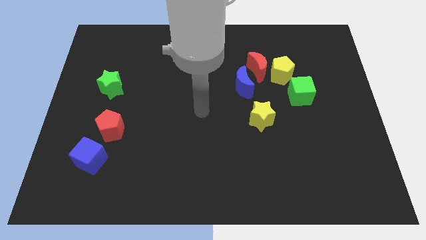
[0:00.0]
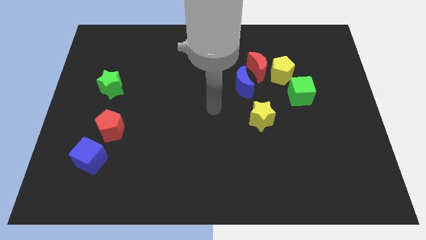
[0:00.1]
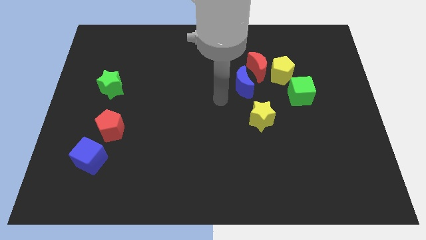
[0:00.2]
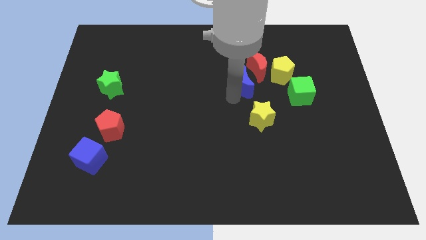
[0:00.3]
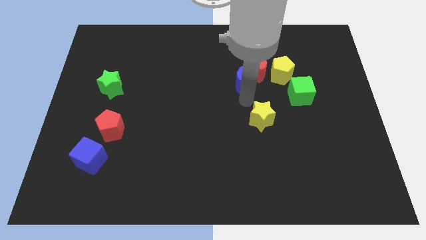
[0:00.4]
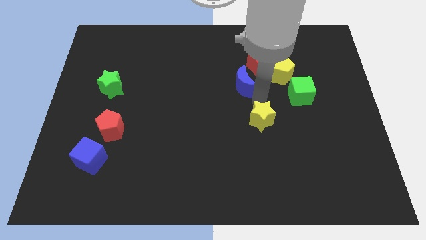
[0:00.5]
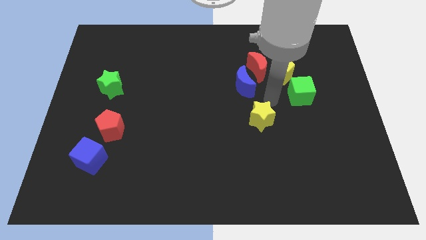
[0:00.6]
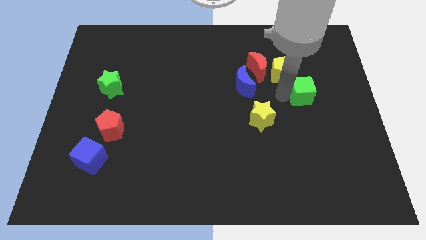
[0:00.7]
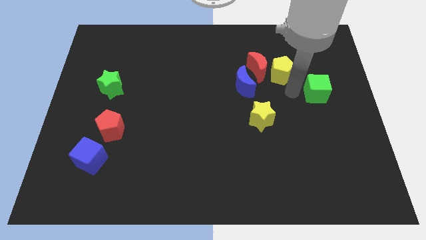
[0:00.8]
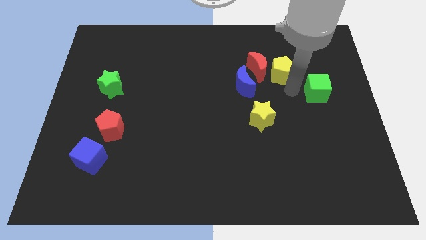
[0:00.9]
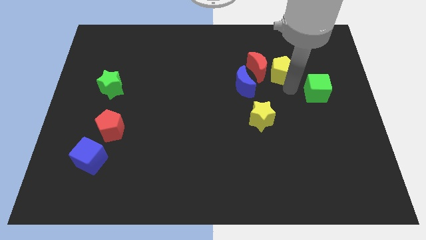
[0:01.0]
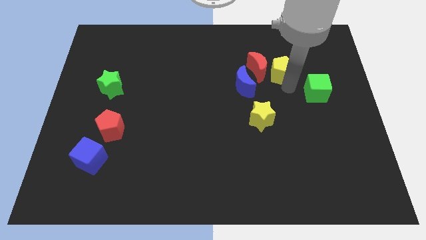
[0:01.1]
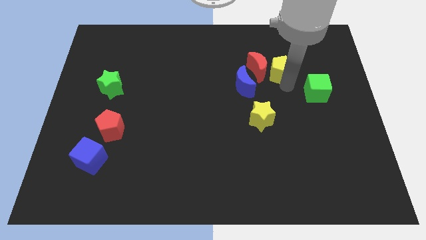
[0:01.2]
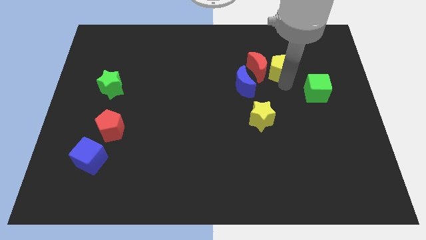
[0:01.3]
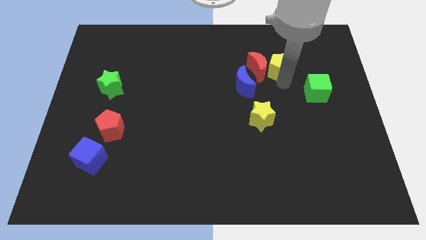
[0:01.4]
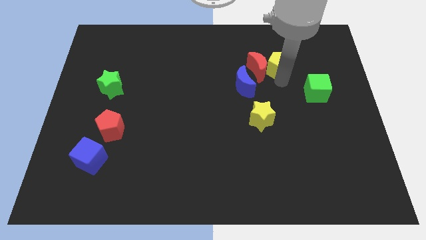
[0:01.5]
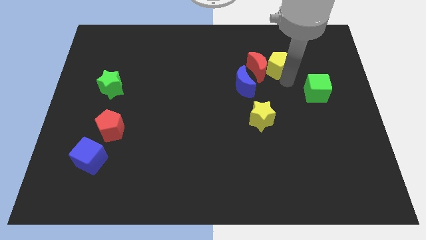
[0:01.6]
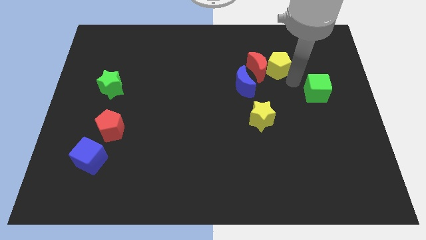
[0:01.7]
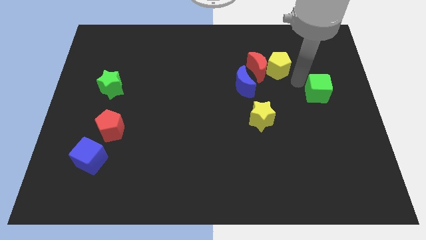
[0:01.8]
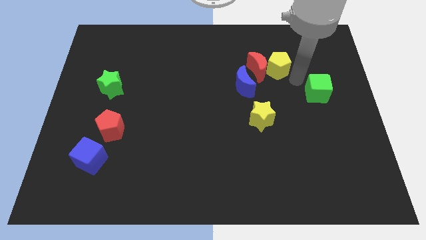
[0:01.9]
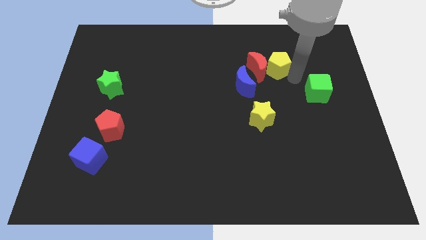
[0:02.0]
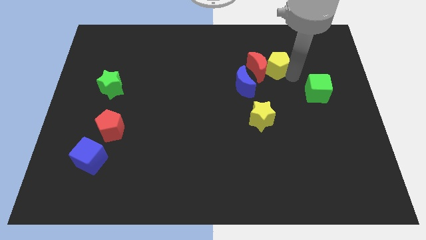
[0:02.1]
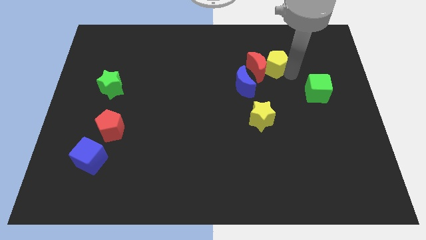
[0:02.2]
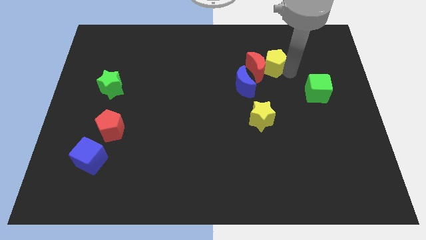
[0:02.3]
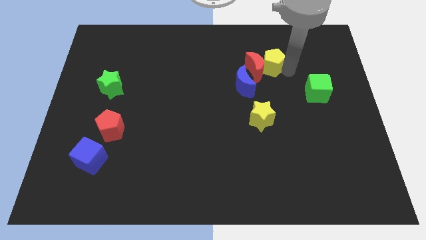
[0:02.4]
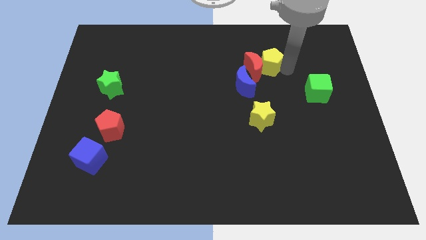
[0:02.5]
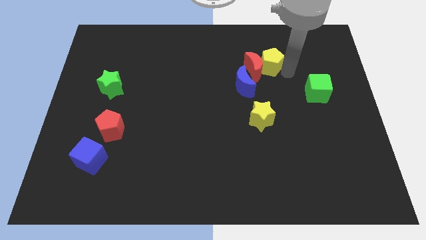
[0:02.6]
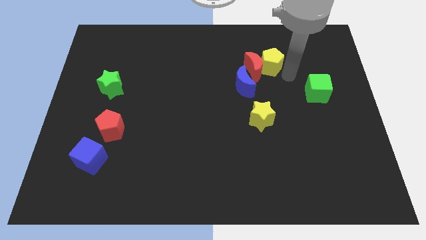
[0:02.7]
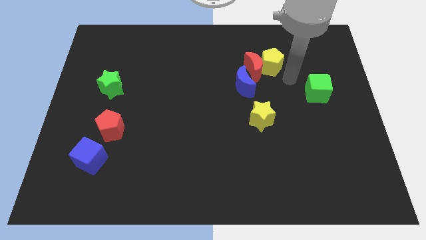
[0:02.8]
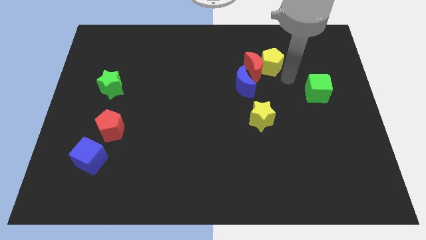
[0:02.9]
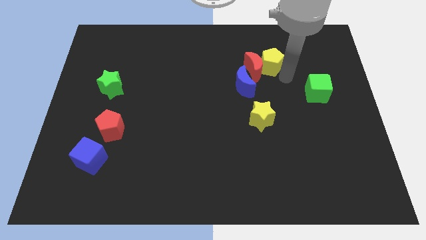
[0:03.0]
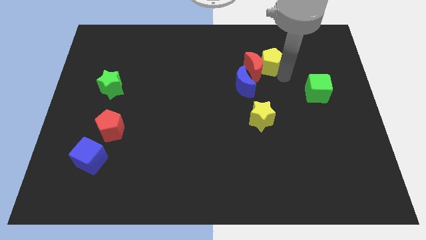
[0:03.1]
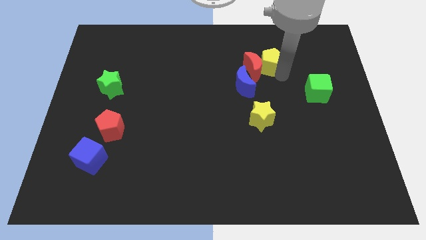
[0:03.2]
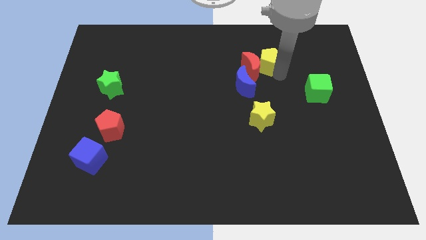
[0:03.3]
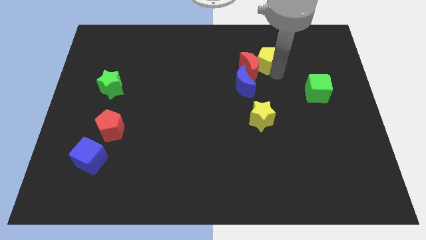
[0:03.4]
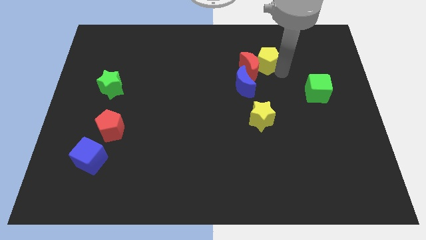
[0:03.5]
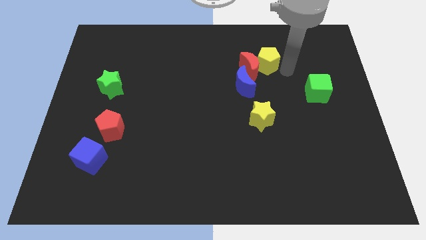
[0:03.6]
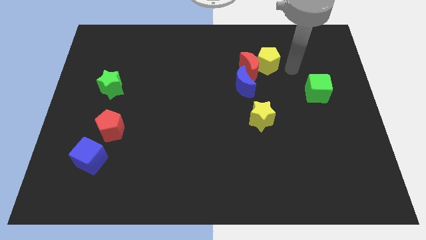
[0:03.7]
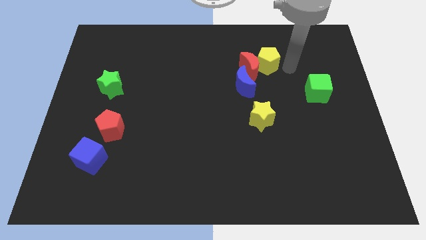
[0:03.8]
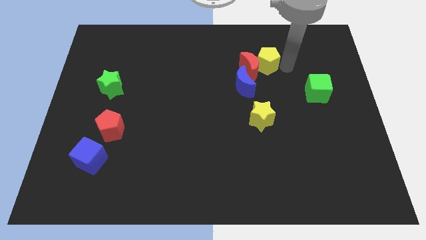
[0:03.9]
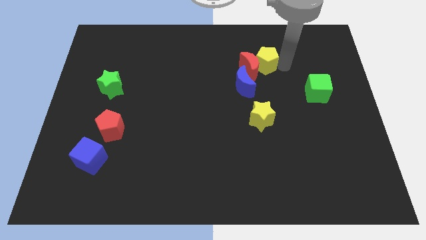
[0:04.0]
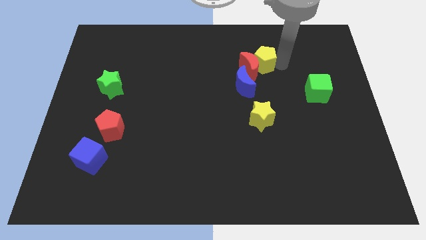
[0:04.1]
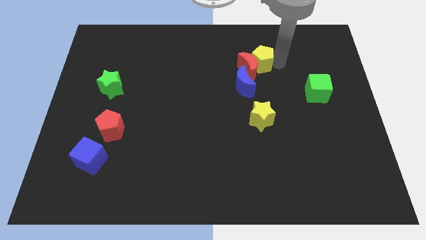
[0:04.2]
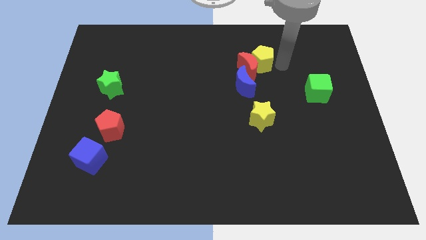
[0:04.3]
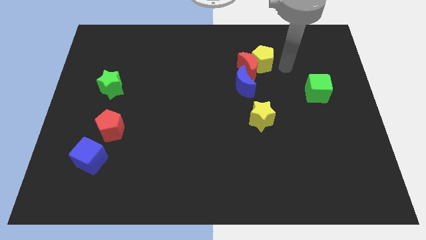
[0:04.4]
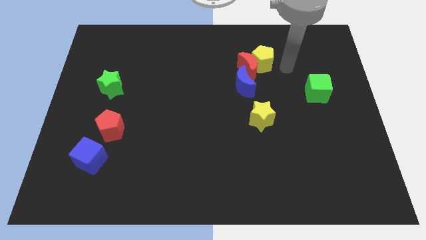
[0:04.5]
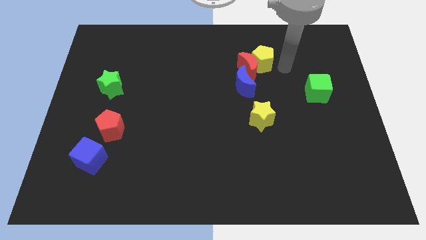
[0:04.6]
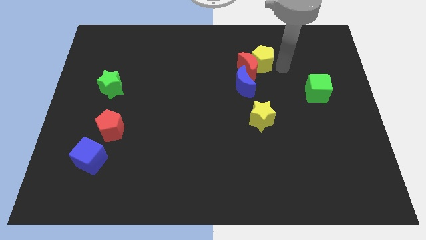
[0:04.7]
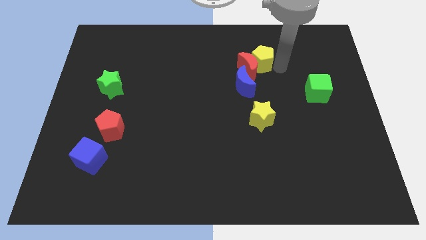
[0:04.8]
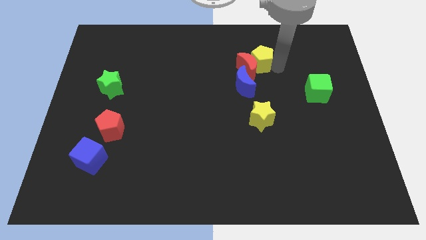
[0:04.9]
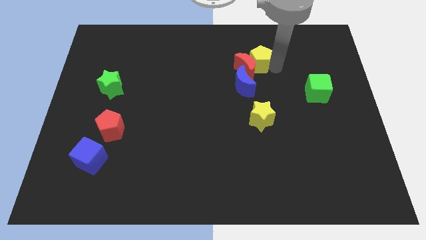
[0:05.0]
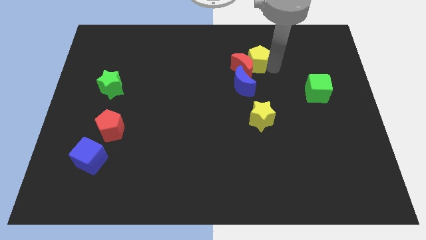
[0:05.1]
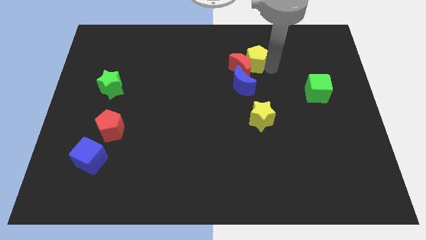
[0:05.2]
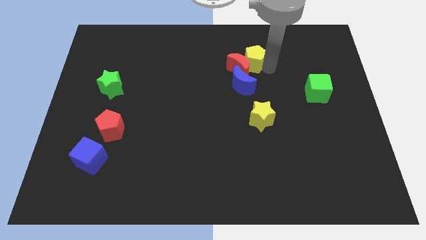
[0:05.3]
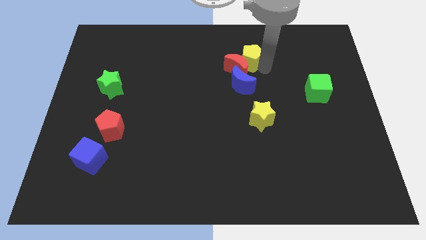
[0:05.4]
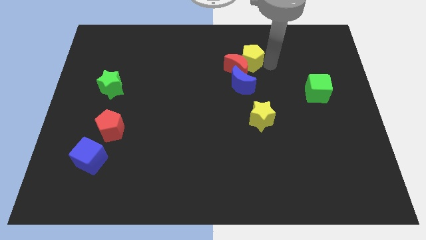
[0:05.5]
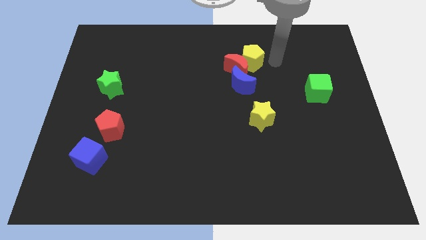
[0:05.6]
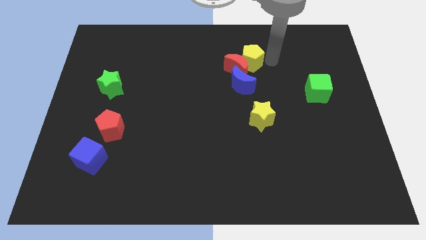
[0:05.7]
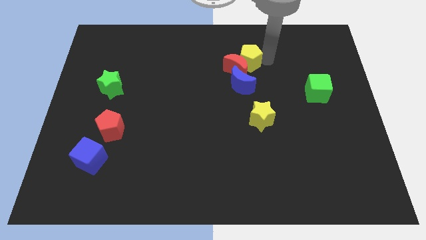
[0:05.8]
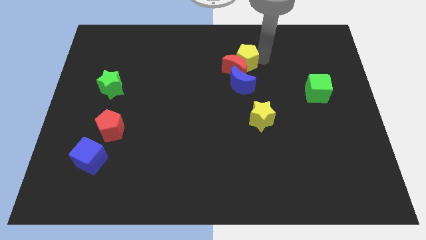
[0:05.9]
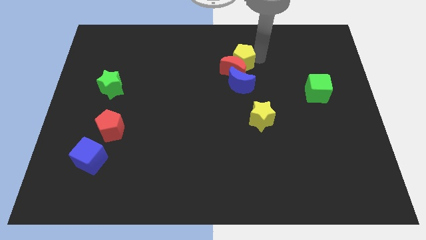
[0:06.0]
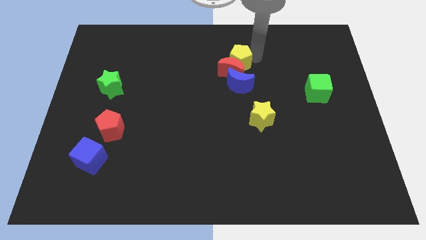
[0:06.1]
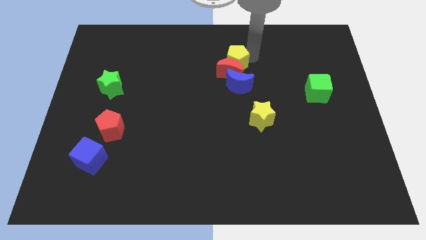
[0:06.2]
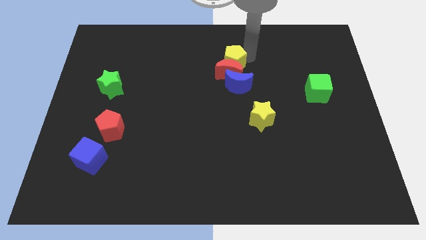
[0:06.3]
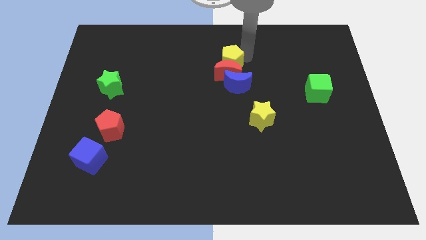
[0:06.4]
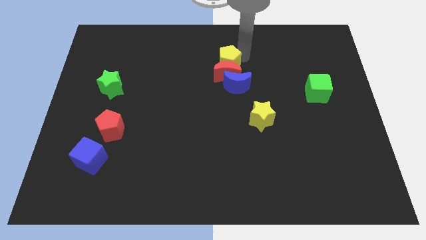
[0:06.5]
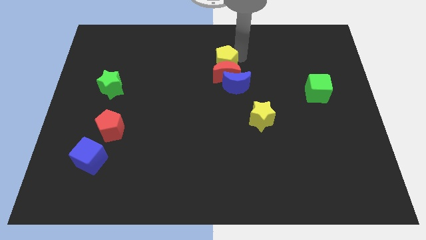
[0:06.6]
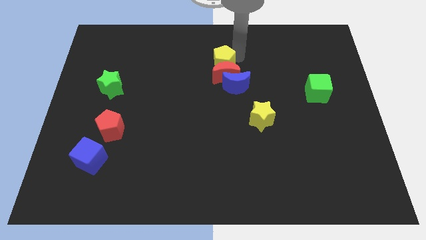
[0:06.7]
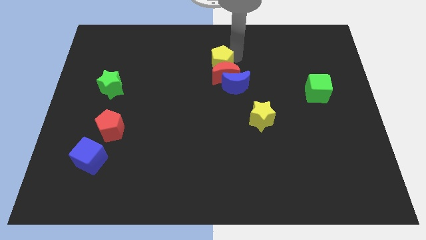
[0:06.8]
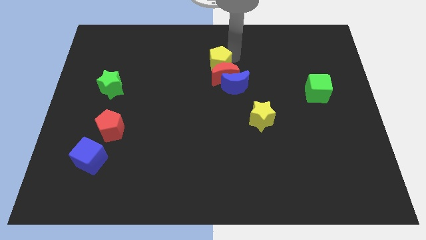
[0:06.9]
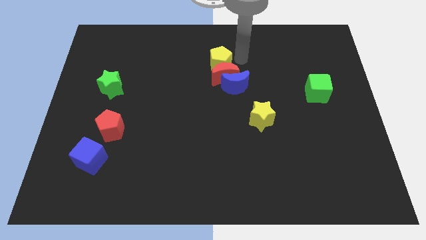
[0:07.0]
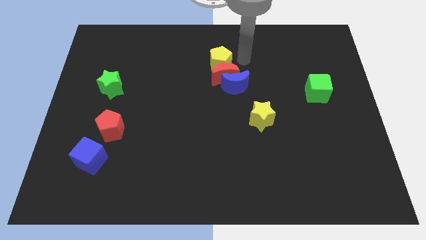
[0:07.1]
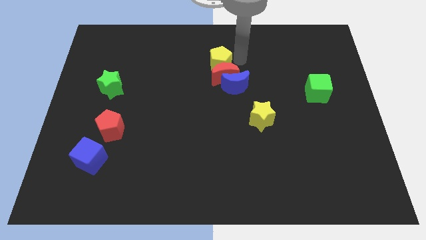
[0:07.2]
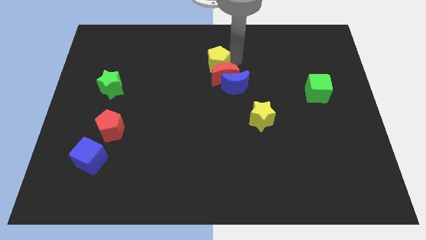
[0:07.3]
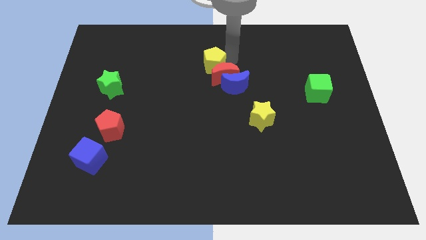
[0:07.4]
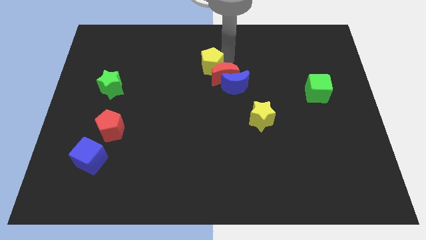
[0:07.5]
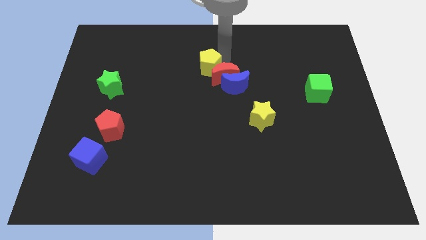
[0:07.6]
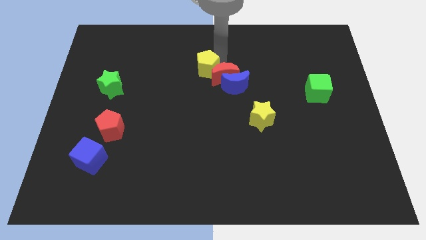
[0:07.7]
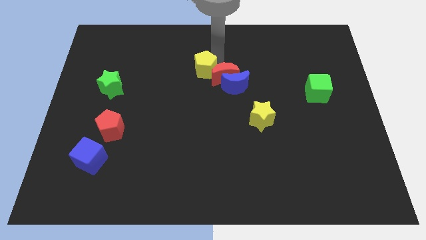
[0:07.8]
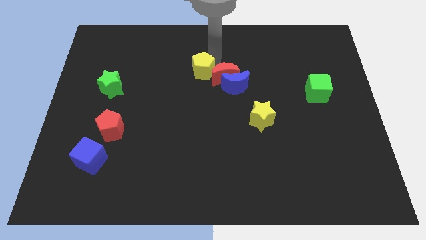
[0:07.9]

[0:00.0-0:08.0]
slide the yellow pentagon to the left
